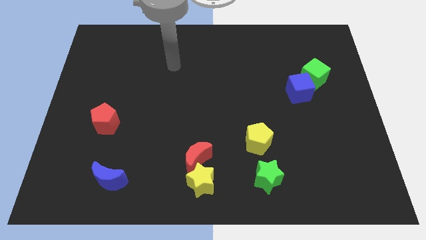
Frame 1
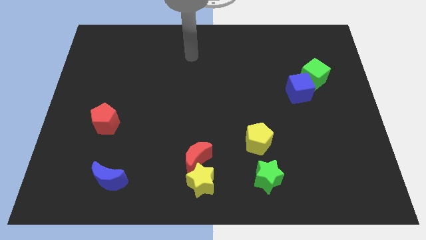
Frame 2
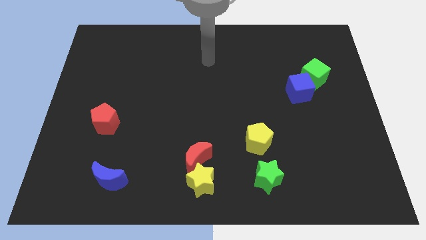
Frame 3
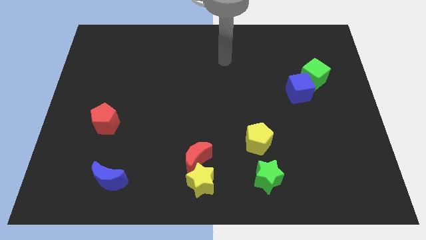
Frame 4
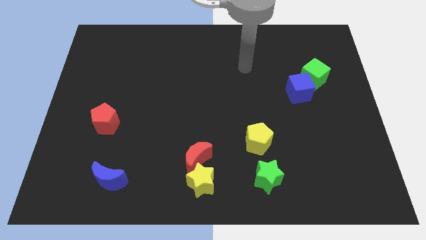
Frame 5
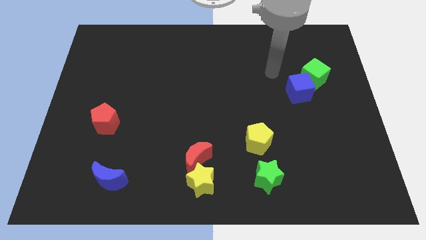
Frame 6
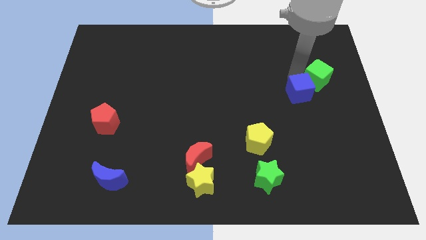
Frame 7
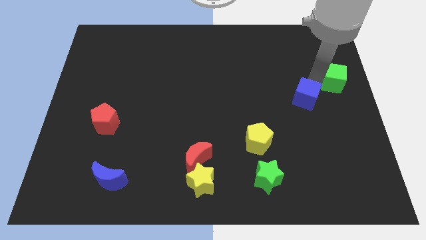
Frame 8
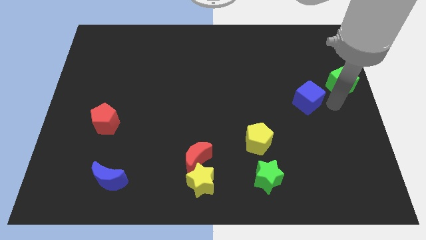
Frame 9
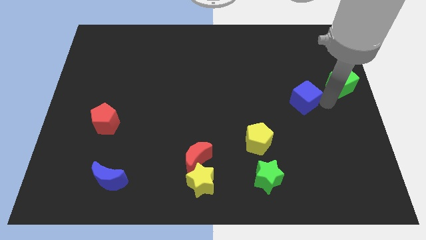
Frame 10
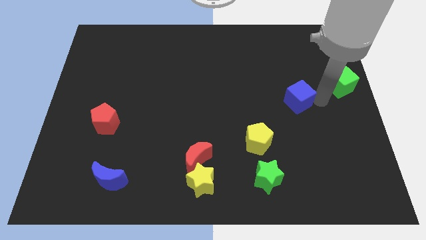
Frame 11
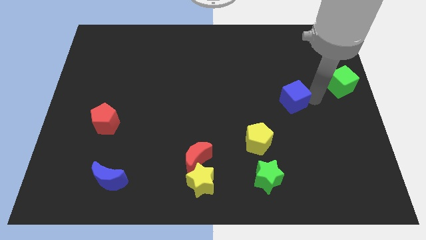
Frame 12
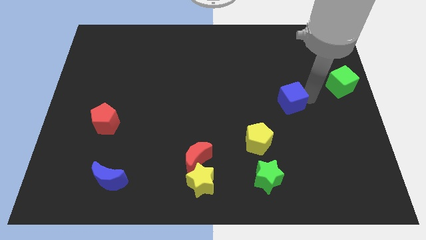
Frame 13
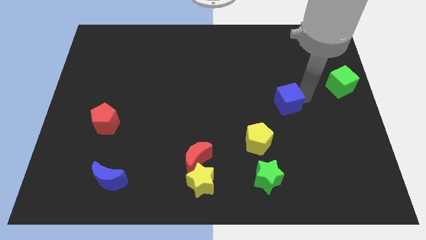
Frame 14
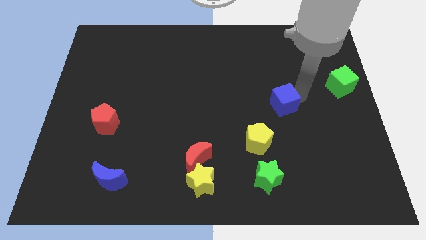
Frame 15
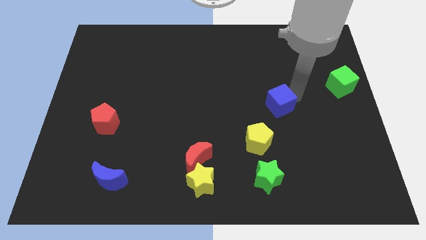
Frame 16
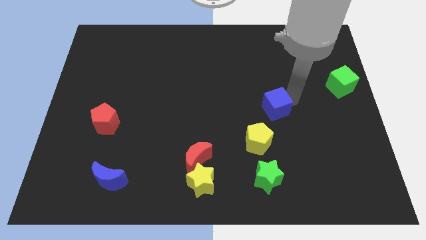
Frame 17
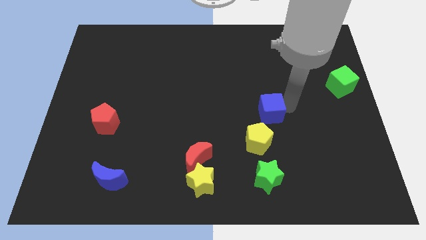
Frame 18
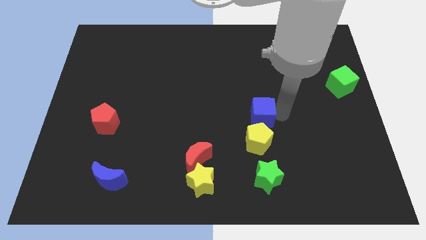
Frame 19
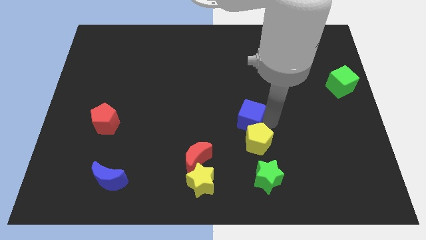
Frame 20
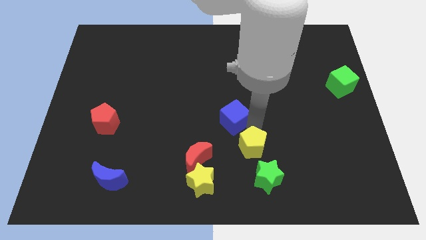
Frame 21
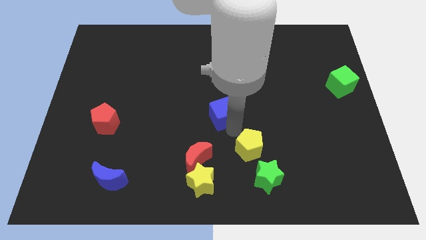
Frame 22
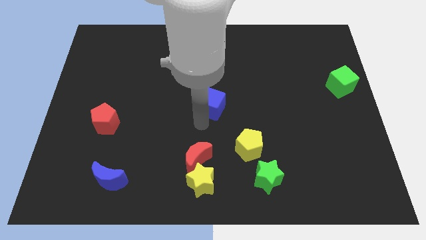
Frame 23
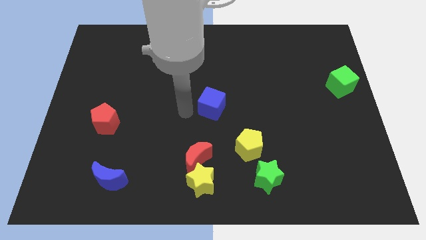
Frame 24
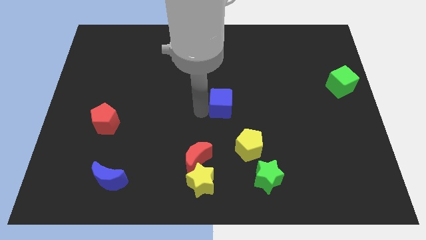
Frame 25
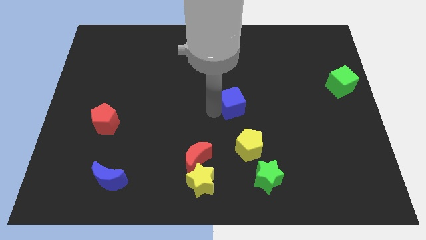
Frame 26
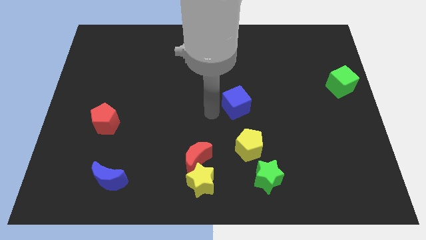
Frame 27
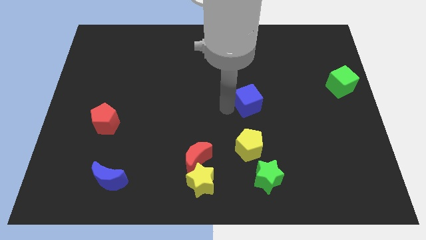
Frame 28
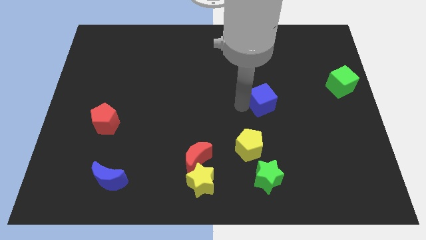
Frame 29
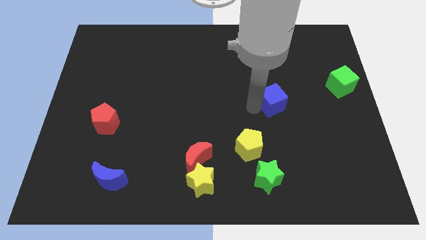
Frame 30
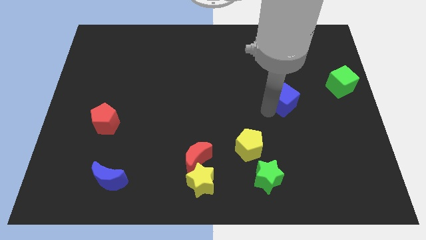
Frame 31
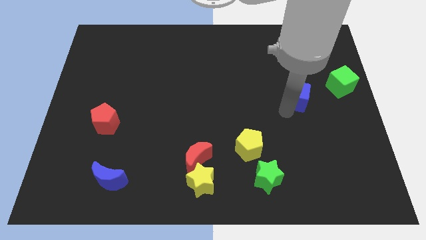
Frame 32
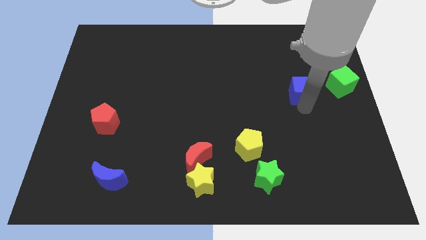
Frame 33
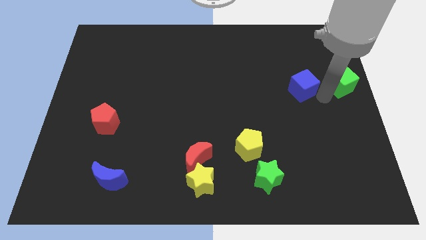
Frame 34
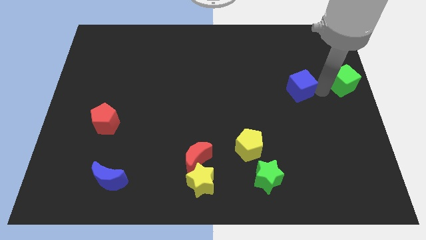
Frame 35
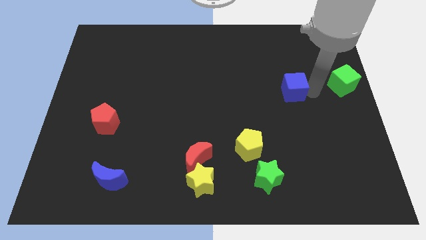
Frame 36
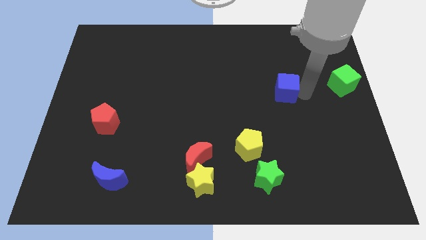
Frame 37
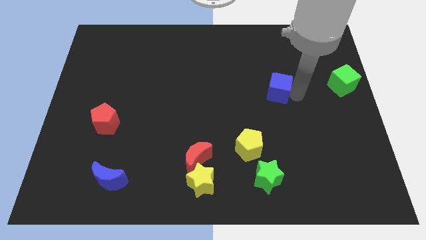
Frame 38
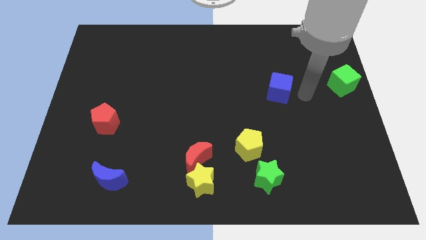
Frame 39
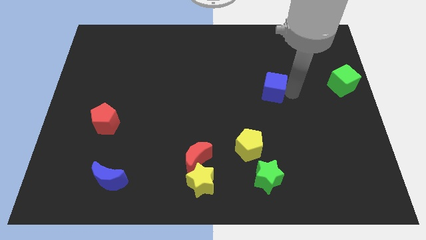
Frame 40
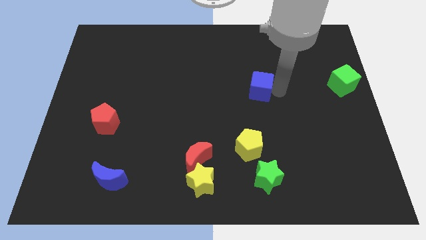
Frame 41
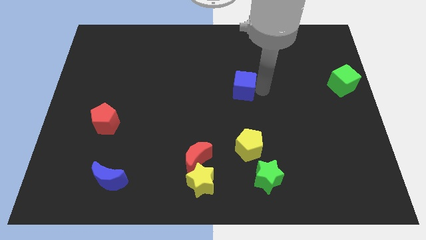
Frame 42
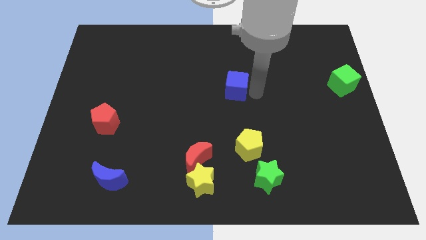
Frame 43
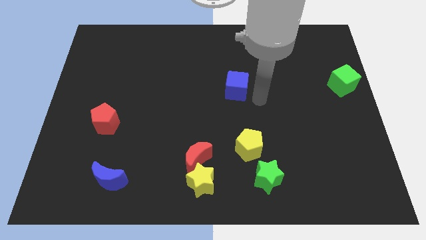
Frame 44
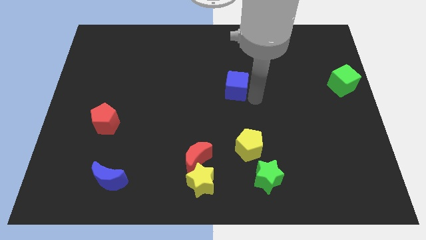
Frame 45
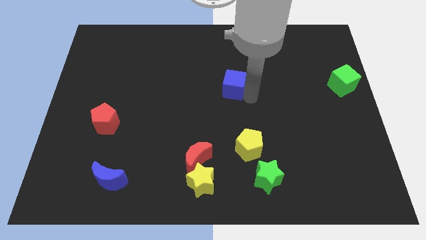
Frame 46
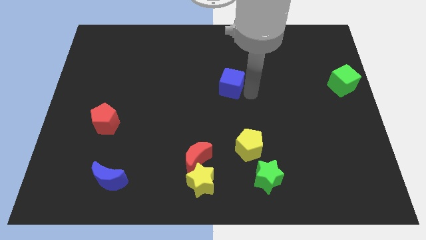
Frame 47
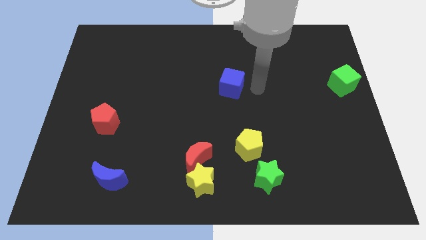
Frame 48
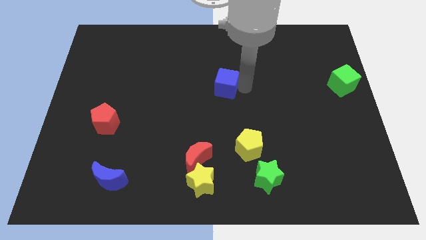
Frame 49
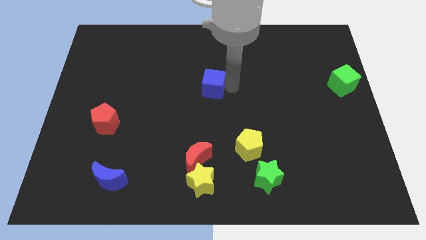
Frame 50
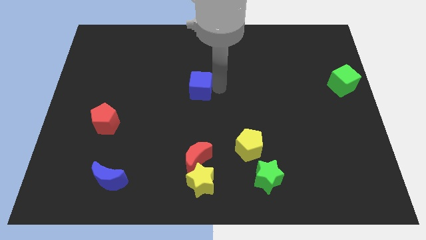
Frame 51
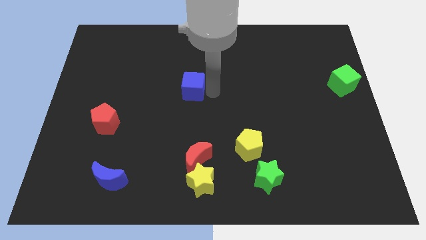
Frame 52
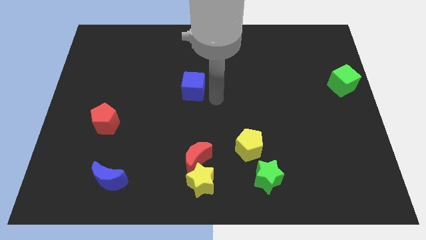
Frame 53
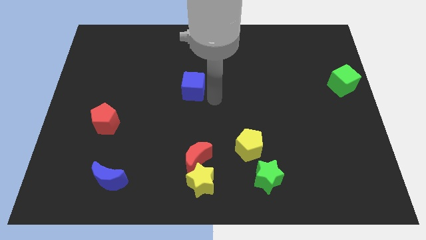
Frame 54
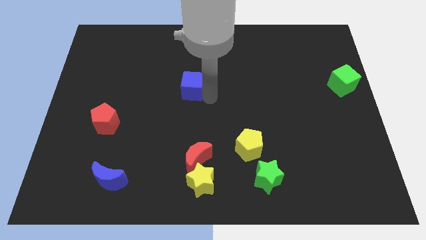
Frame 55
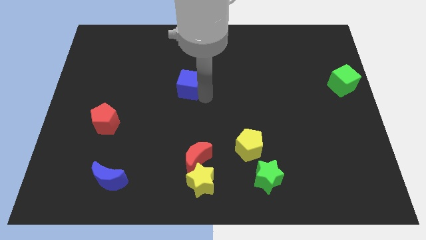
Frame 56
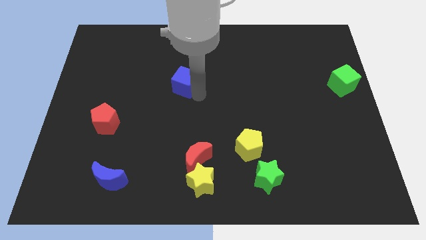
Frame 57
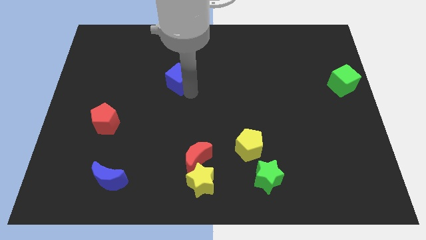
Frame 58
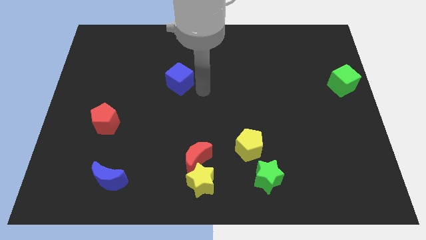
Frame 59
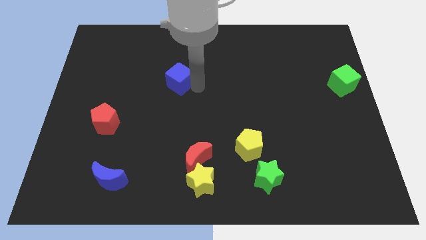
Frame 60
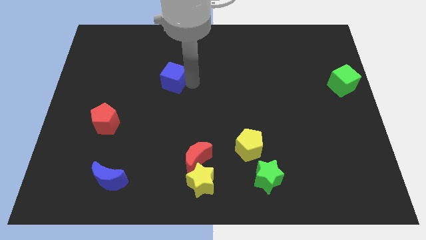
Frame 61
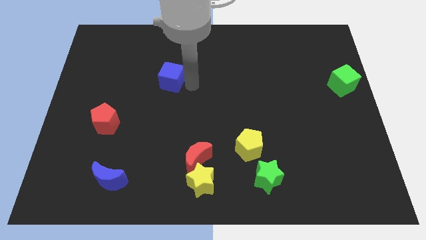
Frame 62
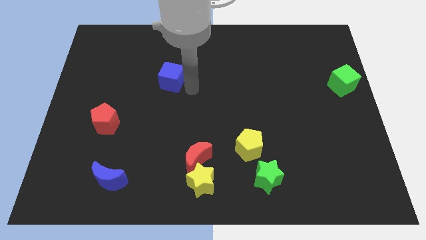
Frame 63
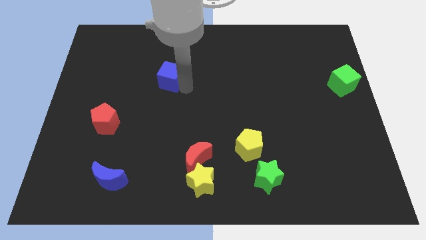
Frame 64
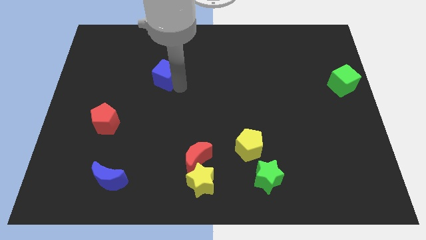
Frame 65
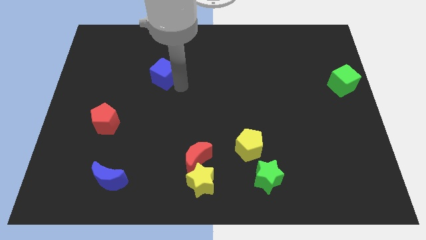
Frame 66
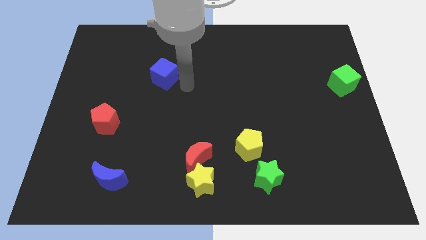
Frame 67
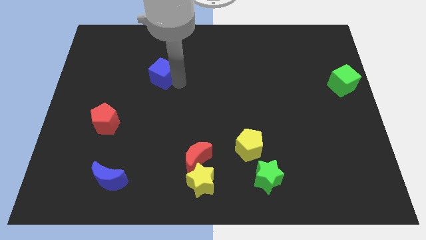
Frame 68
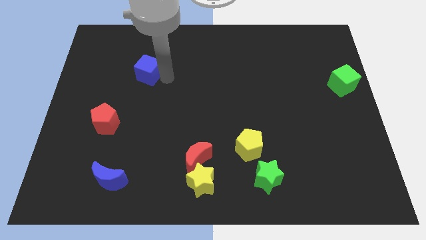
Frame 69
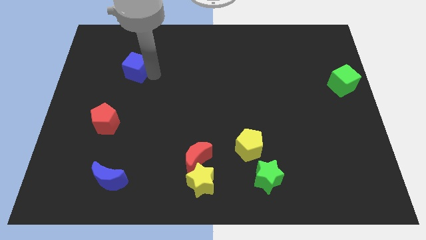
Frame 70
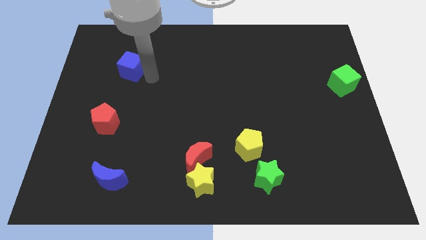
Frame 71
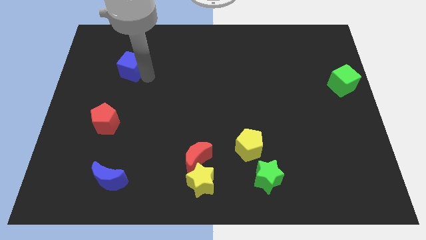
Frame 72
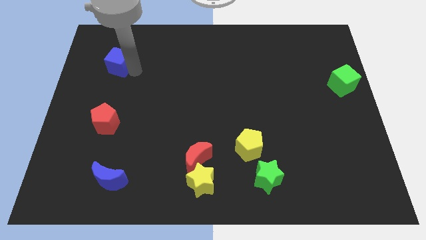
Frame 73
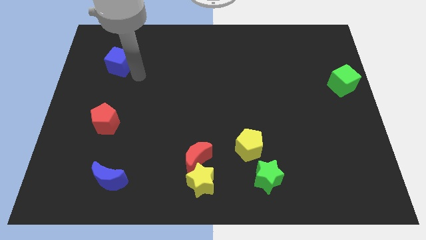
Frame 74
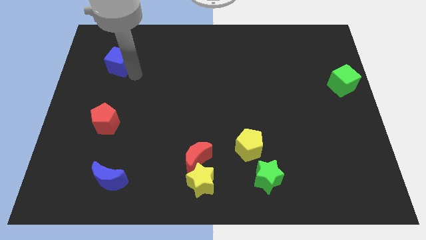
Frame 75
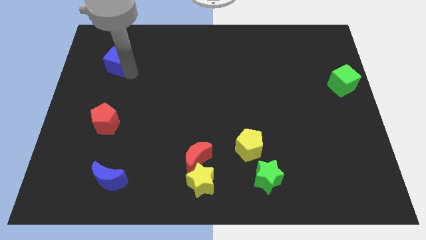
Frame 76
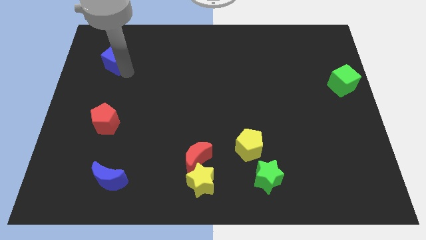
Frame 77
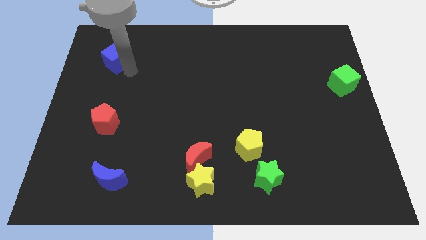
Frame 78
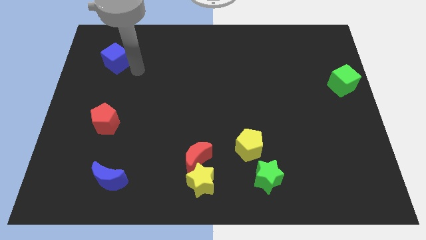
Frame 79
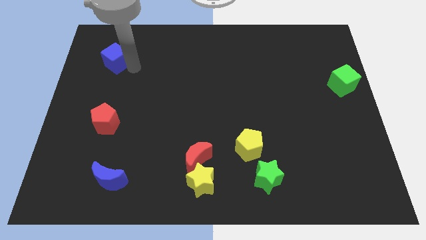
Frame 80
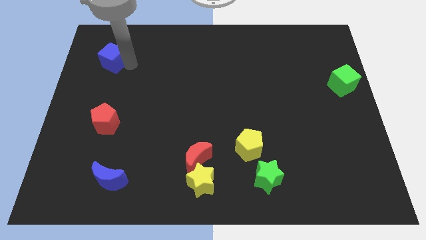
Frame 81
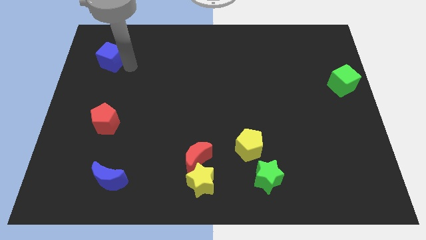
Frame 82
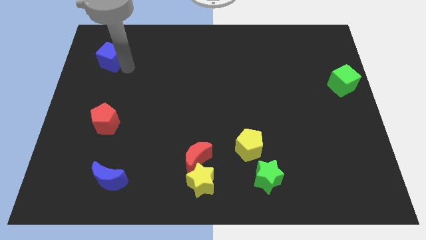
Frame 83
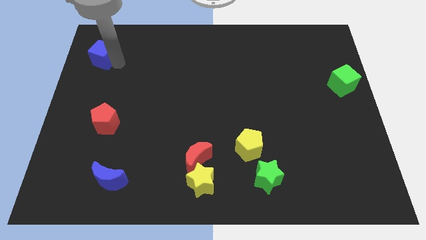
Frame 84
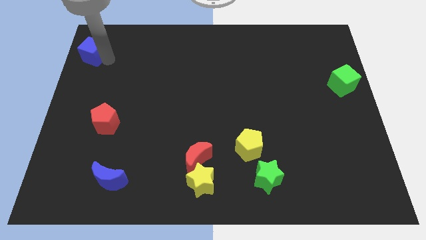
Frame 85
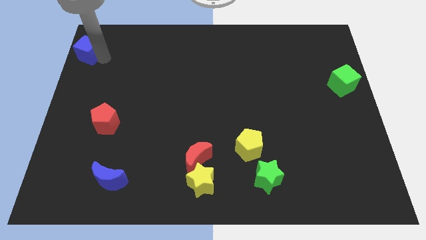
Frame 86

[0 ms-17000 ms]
put the blue cube to the top left
